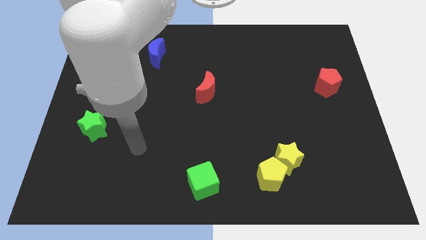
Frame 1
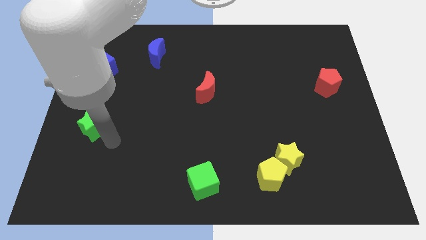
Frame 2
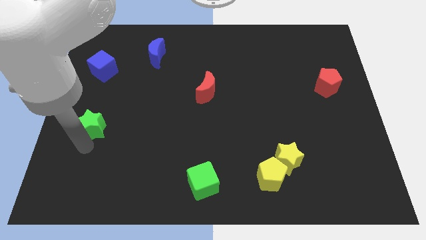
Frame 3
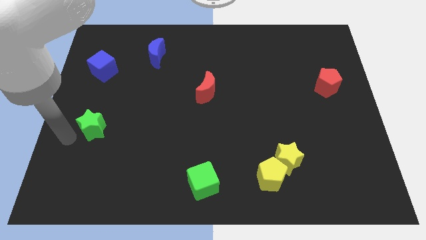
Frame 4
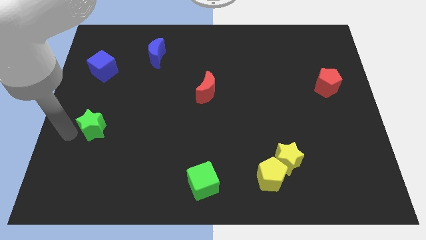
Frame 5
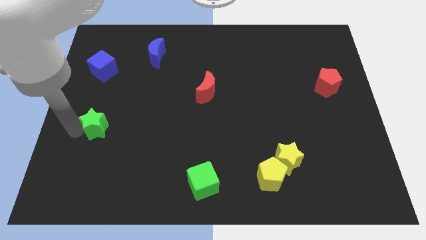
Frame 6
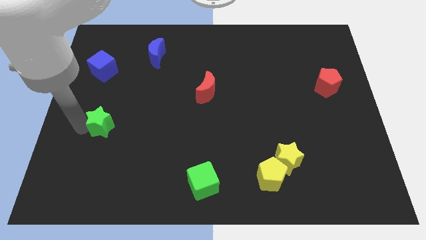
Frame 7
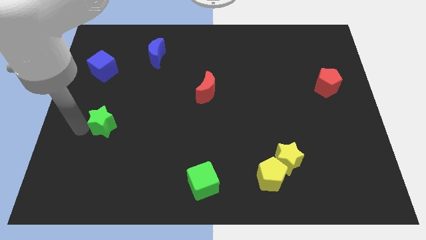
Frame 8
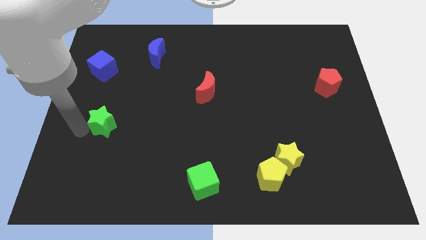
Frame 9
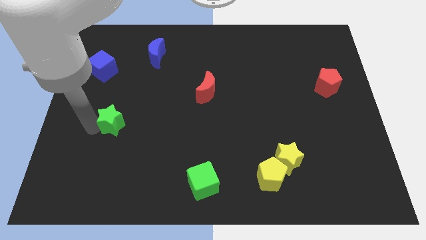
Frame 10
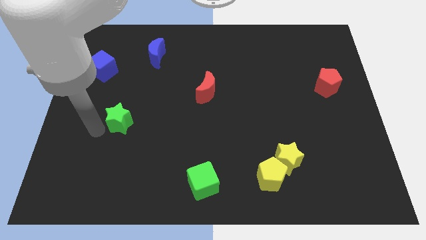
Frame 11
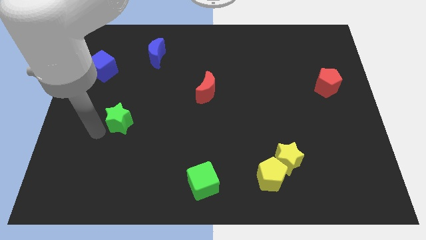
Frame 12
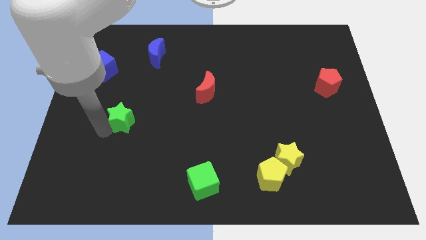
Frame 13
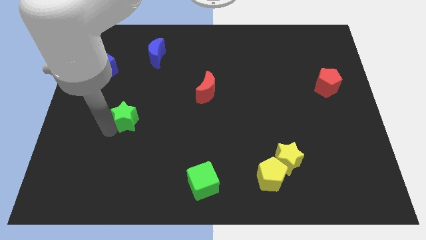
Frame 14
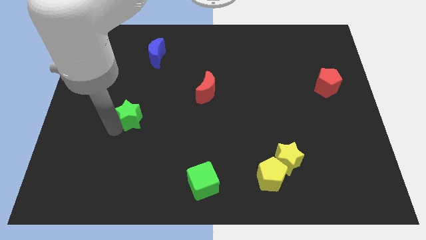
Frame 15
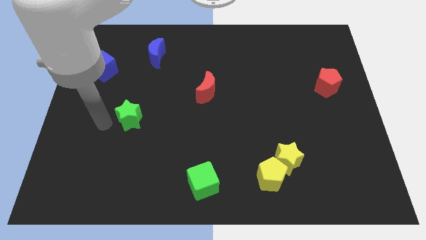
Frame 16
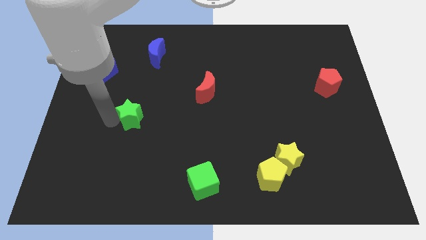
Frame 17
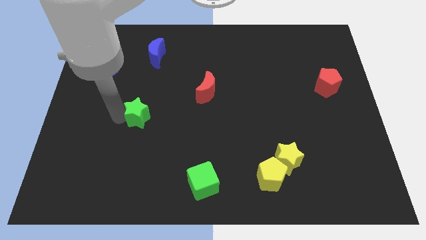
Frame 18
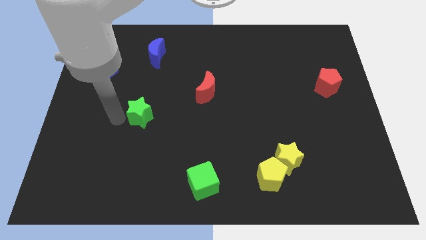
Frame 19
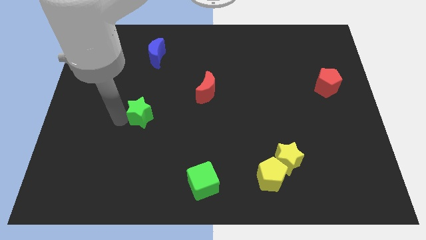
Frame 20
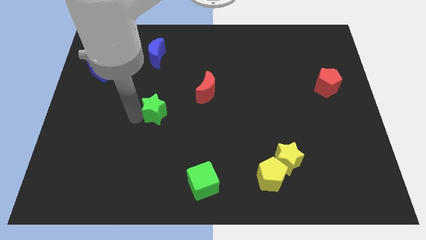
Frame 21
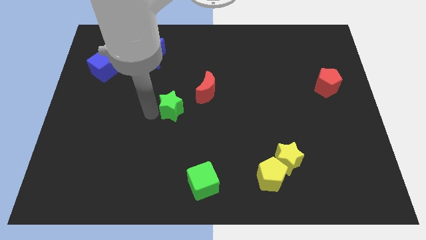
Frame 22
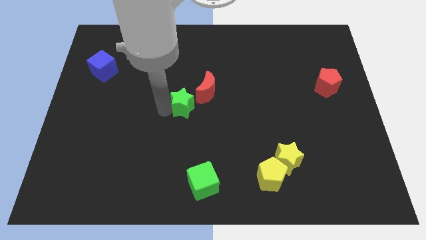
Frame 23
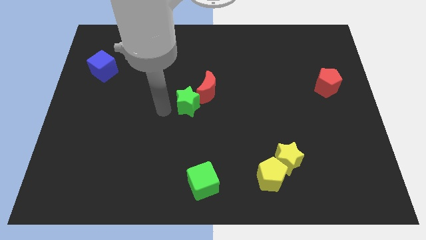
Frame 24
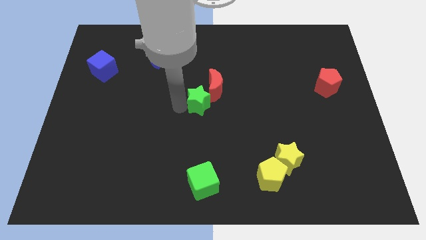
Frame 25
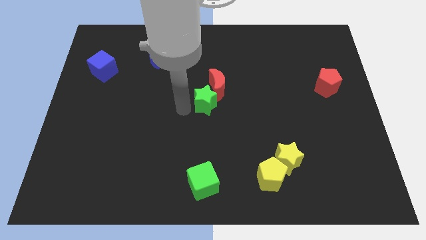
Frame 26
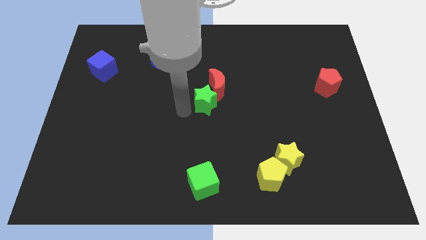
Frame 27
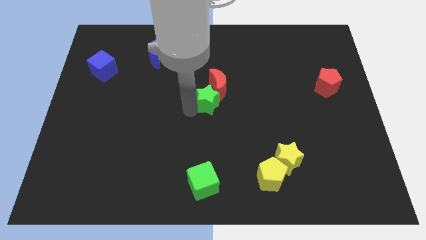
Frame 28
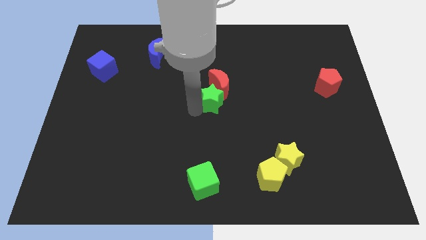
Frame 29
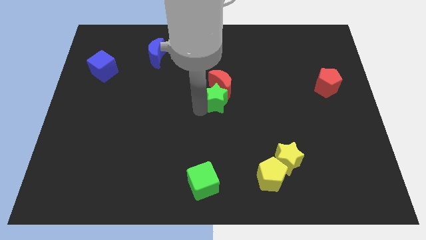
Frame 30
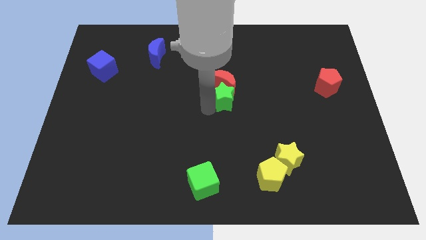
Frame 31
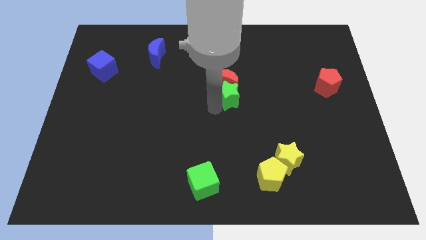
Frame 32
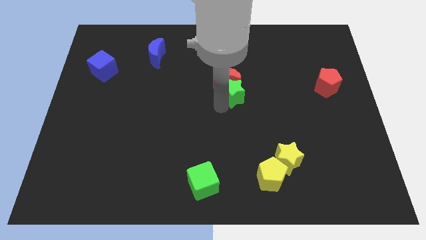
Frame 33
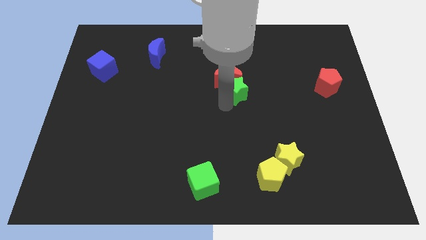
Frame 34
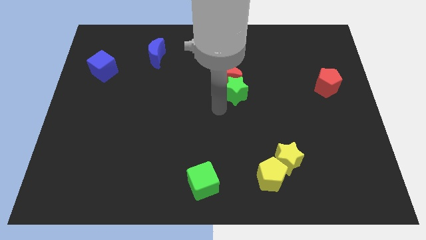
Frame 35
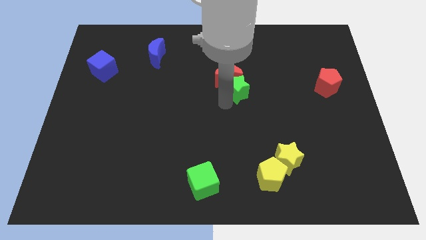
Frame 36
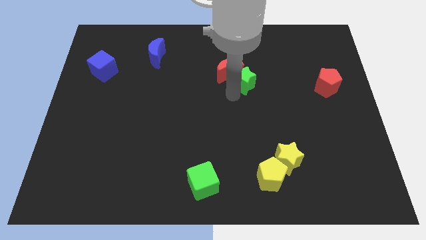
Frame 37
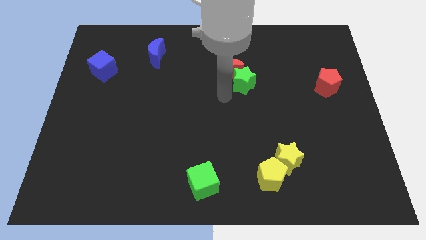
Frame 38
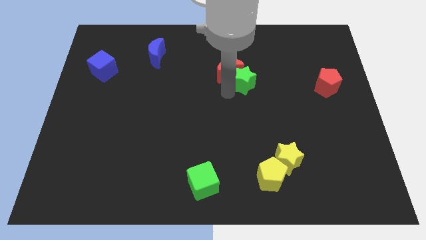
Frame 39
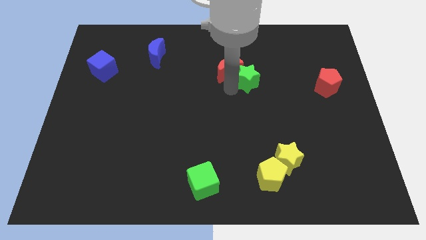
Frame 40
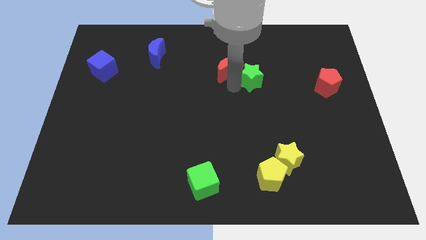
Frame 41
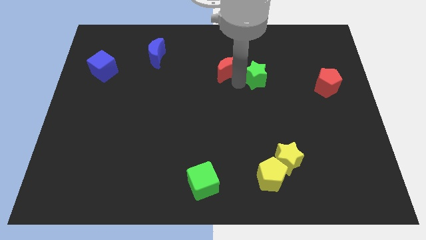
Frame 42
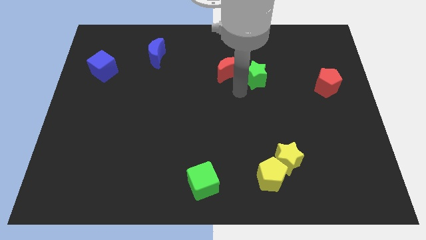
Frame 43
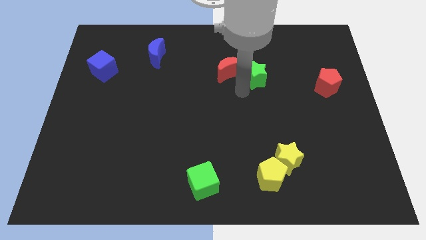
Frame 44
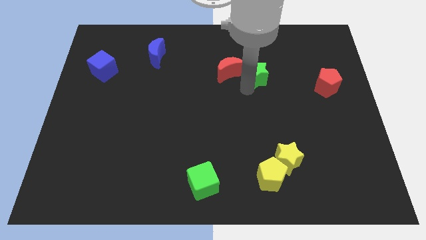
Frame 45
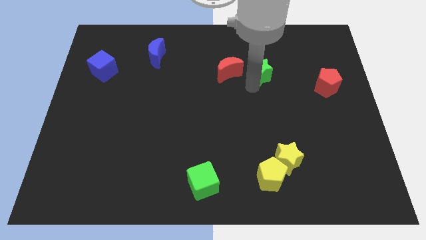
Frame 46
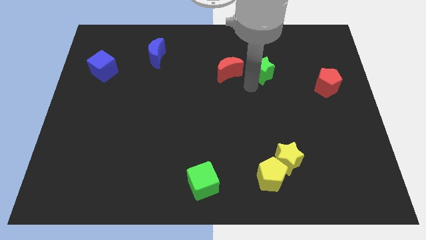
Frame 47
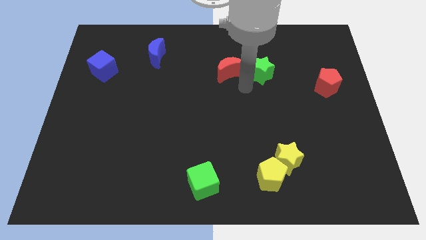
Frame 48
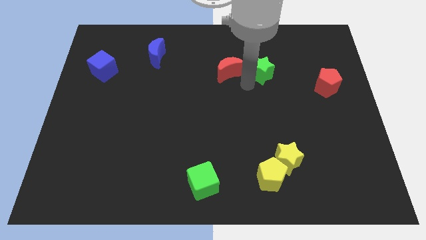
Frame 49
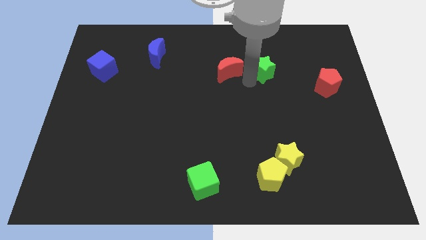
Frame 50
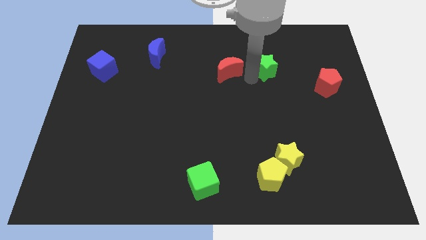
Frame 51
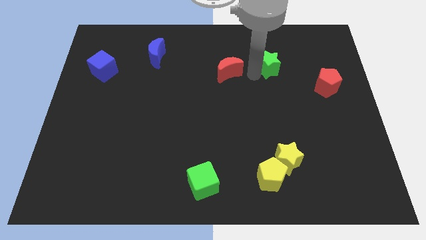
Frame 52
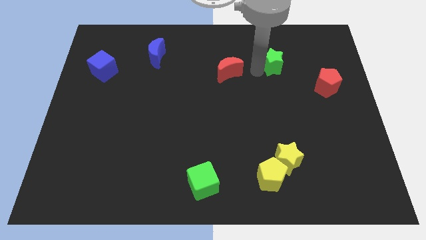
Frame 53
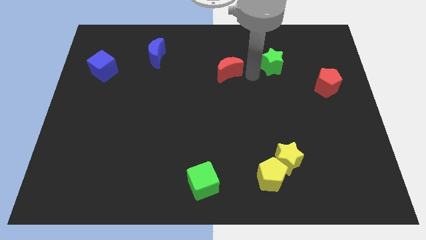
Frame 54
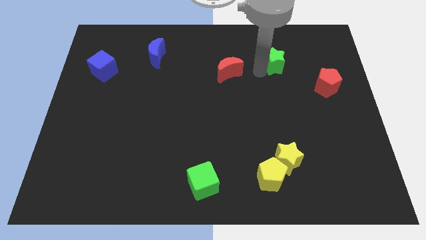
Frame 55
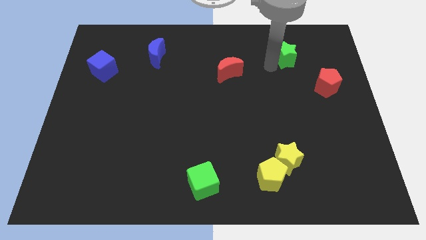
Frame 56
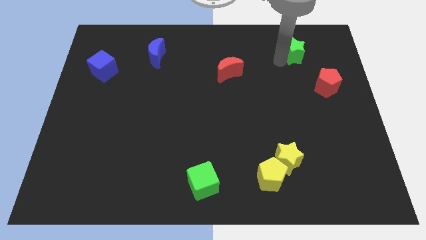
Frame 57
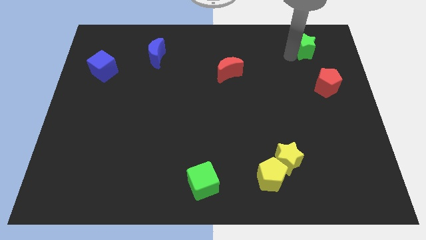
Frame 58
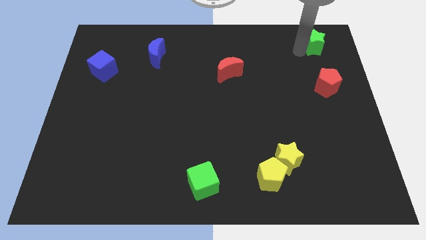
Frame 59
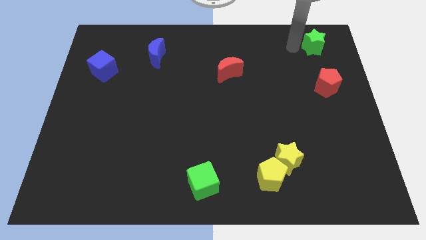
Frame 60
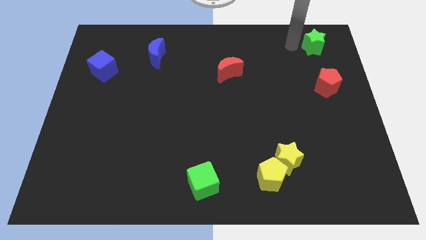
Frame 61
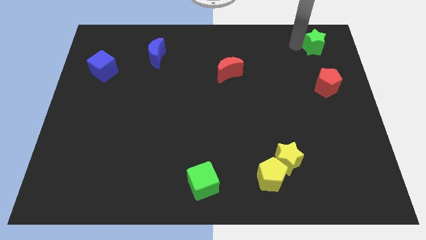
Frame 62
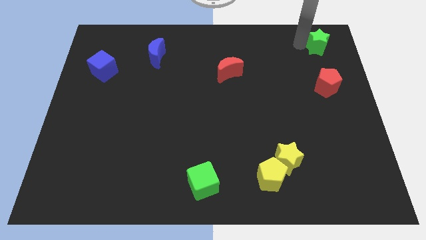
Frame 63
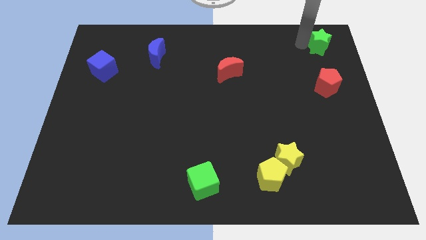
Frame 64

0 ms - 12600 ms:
move the green star to the top right of the board
